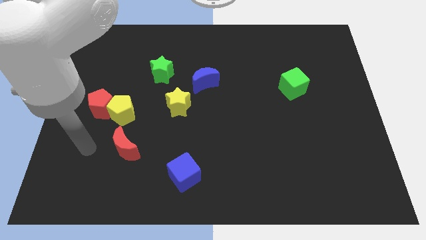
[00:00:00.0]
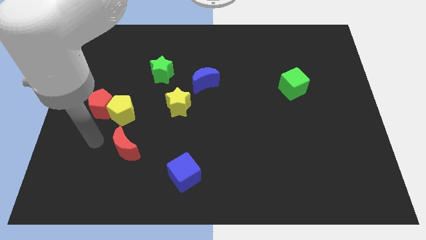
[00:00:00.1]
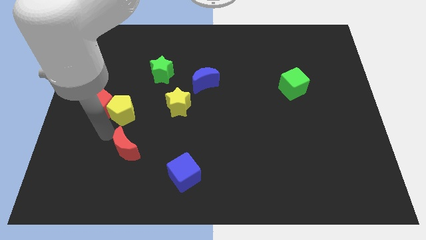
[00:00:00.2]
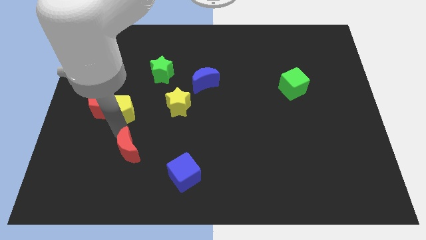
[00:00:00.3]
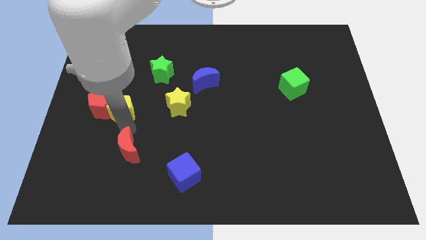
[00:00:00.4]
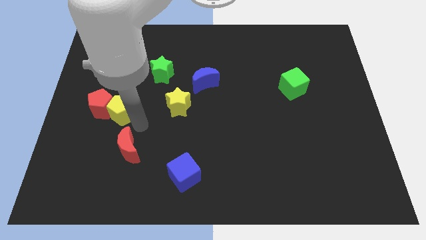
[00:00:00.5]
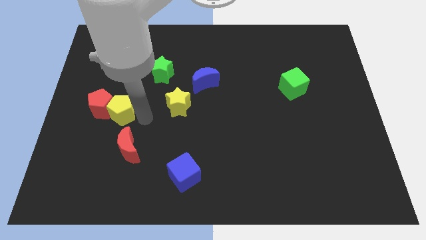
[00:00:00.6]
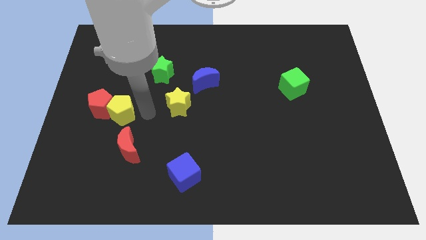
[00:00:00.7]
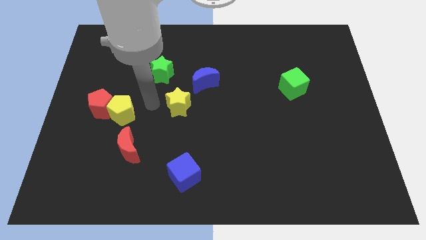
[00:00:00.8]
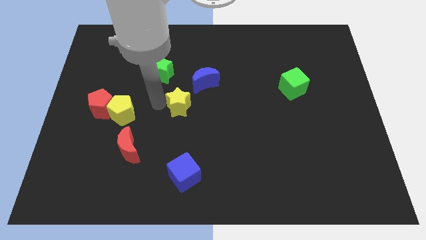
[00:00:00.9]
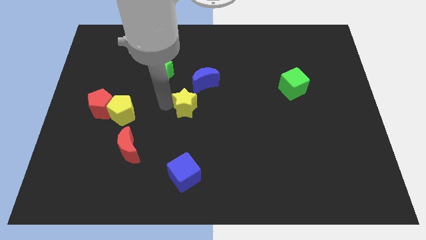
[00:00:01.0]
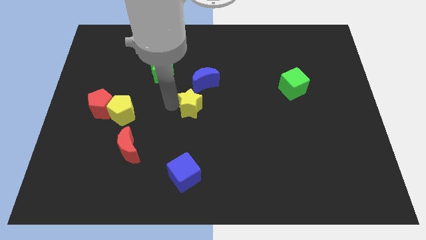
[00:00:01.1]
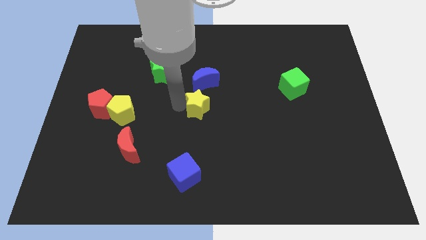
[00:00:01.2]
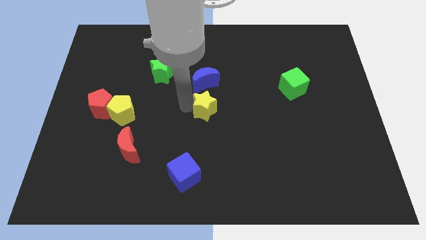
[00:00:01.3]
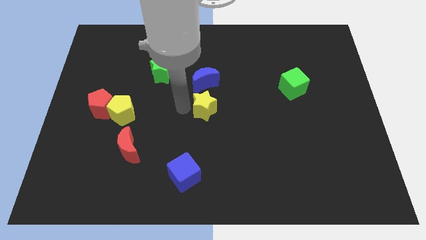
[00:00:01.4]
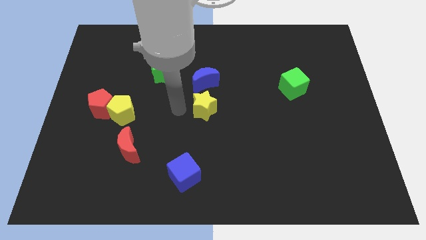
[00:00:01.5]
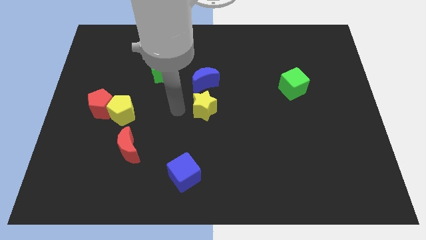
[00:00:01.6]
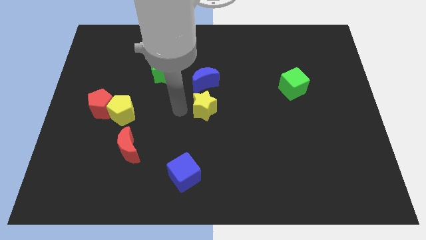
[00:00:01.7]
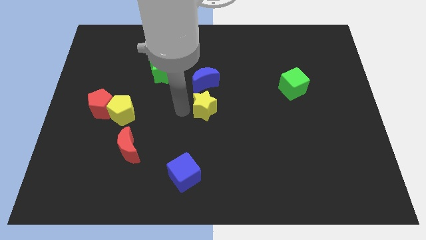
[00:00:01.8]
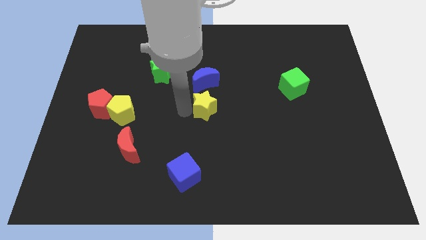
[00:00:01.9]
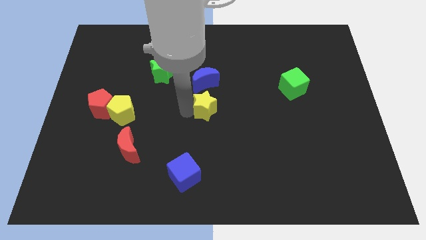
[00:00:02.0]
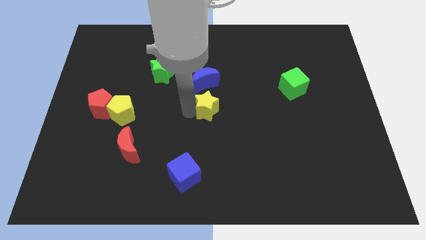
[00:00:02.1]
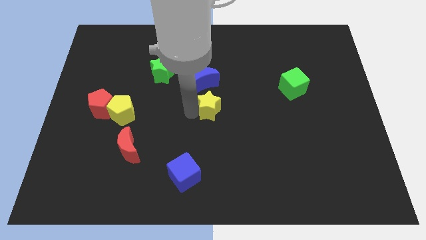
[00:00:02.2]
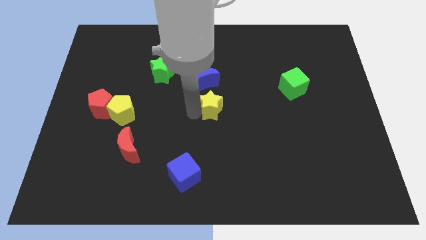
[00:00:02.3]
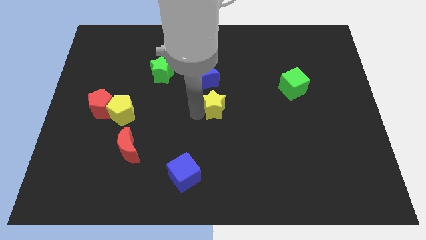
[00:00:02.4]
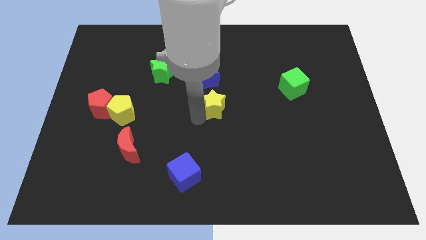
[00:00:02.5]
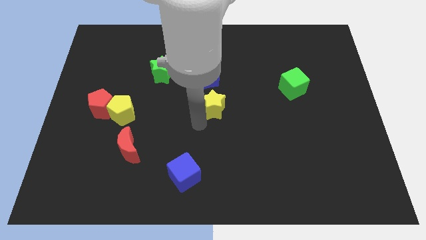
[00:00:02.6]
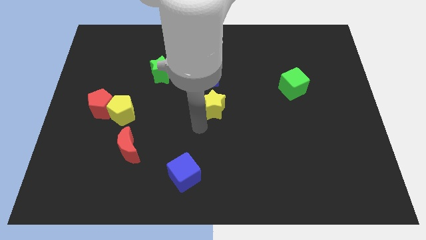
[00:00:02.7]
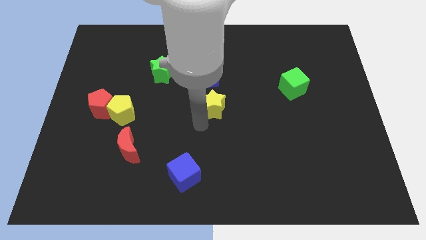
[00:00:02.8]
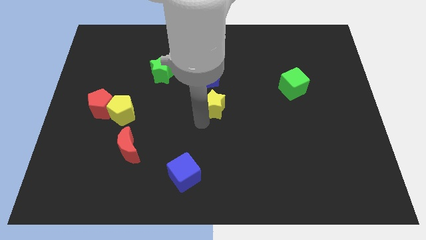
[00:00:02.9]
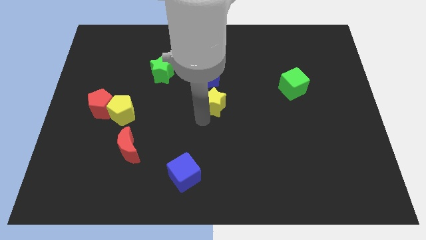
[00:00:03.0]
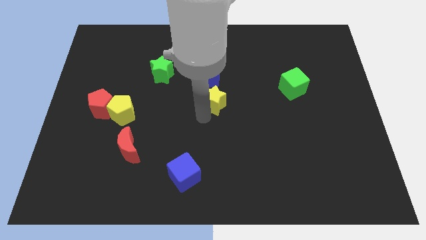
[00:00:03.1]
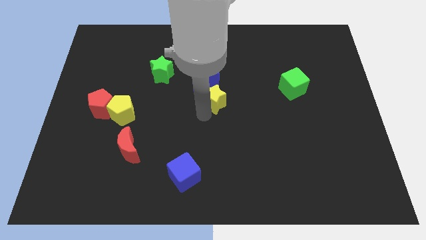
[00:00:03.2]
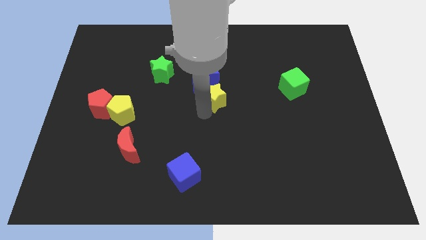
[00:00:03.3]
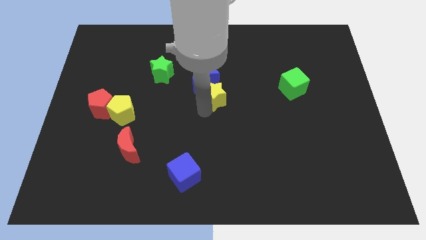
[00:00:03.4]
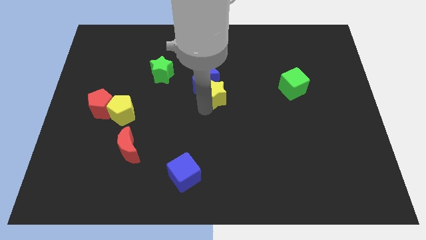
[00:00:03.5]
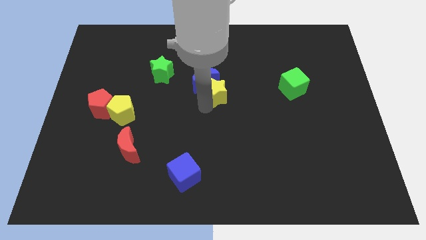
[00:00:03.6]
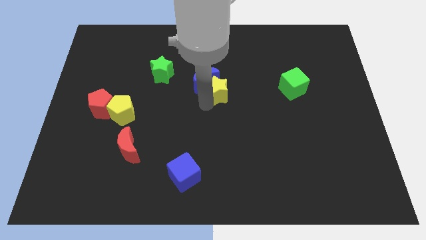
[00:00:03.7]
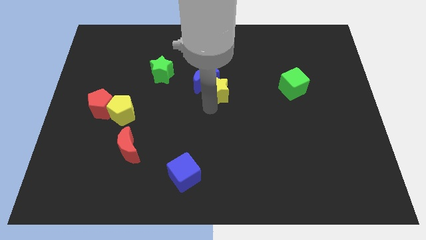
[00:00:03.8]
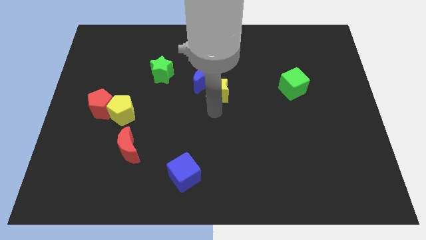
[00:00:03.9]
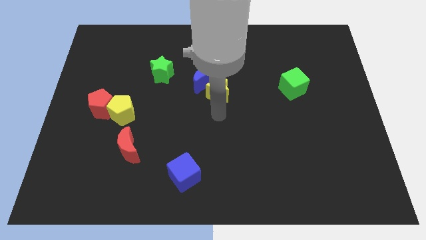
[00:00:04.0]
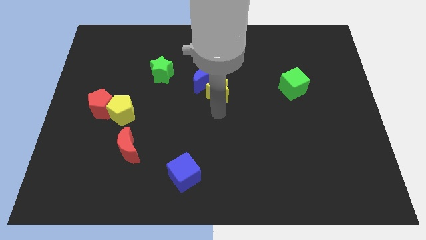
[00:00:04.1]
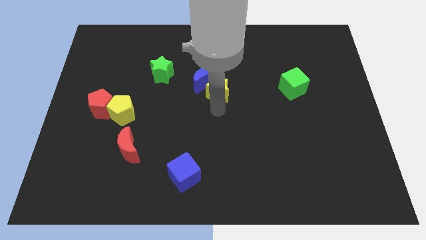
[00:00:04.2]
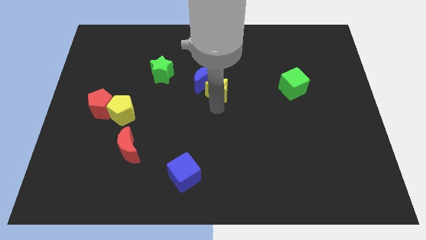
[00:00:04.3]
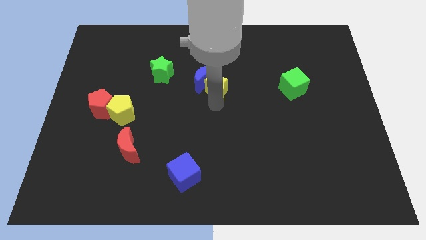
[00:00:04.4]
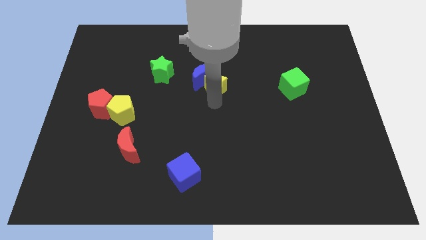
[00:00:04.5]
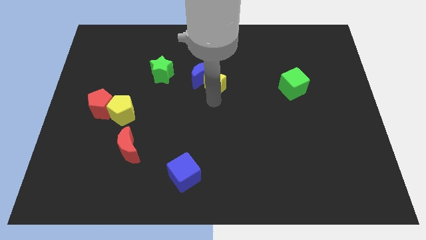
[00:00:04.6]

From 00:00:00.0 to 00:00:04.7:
push the yellow star right of the green star

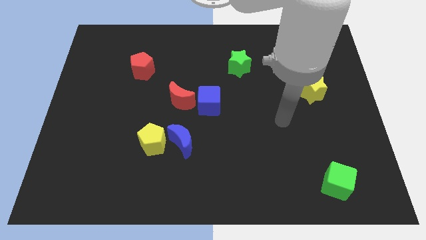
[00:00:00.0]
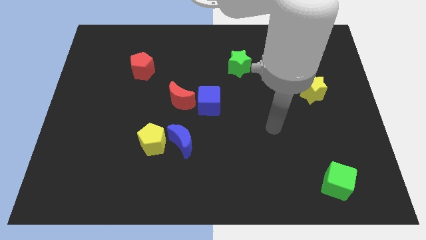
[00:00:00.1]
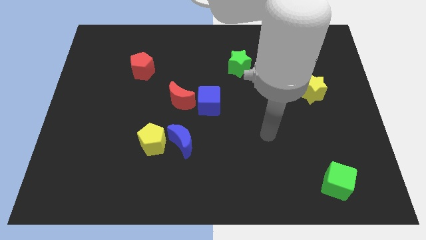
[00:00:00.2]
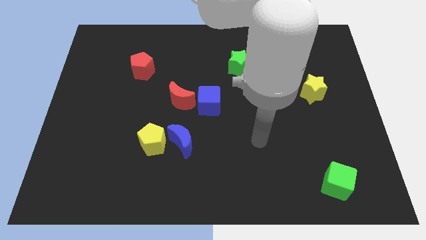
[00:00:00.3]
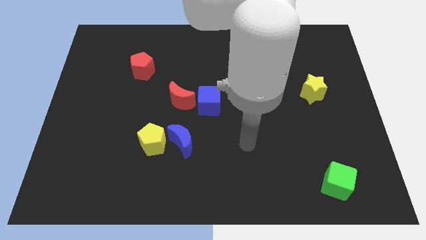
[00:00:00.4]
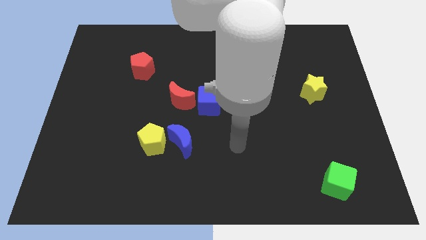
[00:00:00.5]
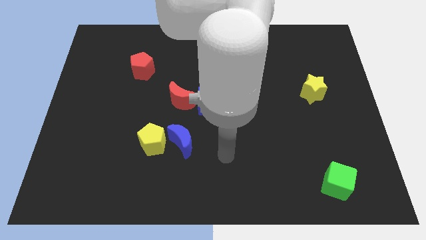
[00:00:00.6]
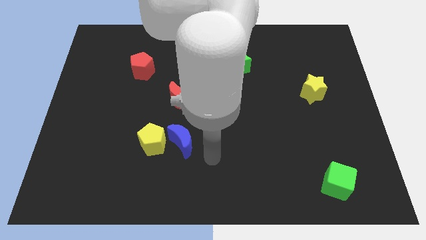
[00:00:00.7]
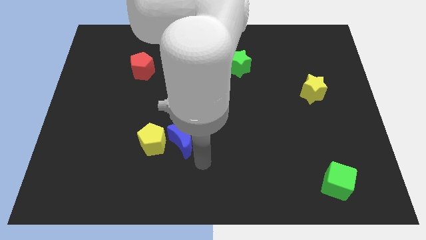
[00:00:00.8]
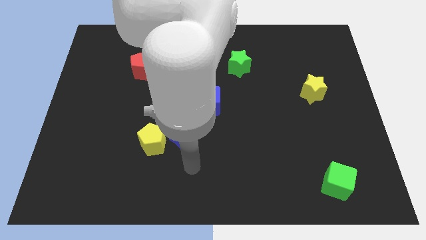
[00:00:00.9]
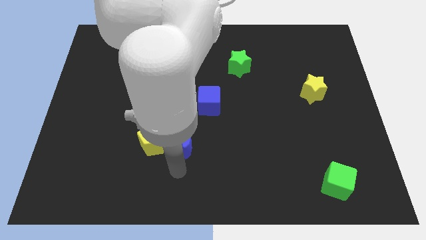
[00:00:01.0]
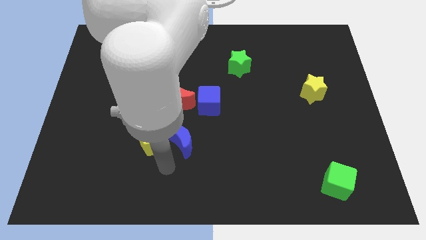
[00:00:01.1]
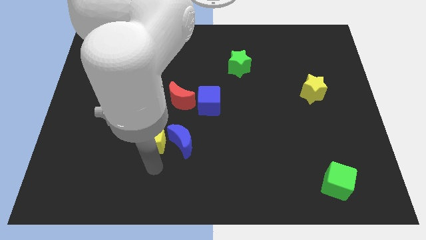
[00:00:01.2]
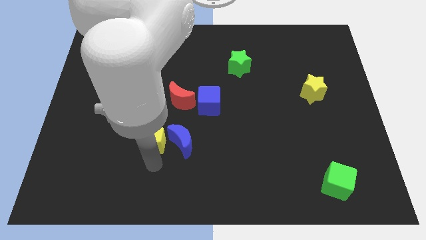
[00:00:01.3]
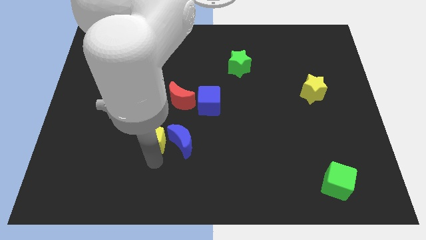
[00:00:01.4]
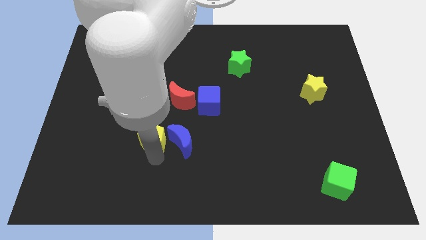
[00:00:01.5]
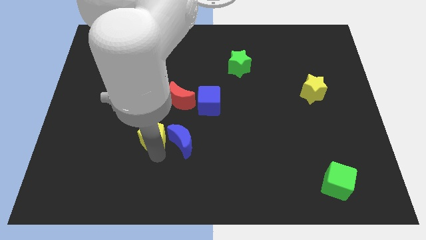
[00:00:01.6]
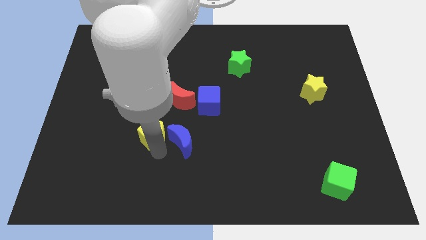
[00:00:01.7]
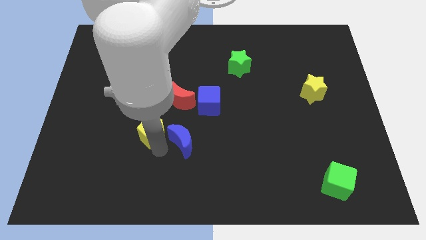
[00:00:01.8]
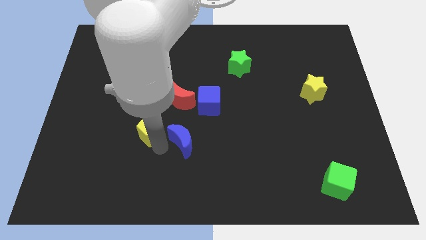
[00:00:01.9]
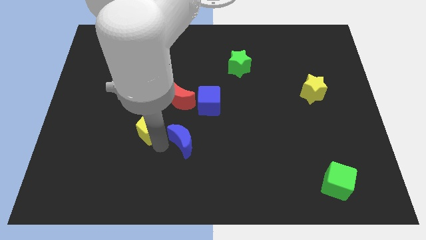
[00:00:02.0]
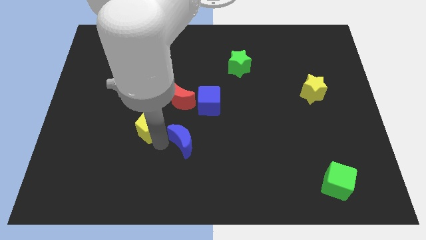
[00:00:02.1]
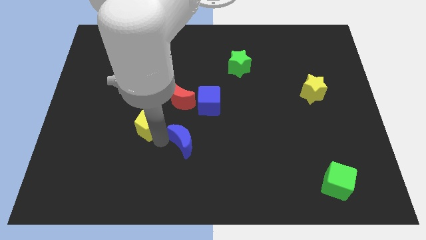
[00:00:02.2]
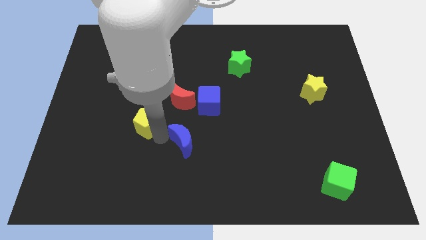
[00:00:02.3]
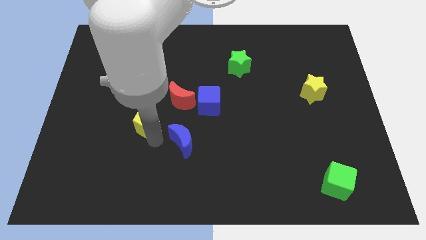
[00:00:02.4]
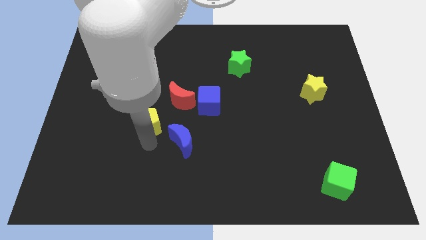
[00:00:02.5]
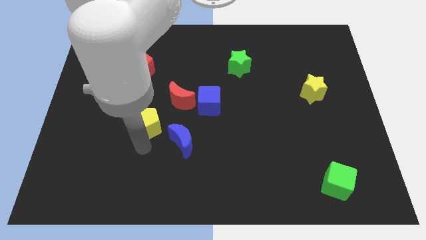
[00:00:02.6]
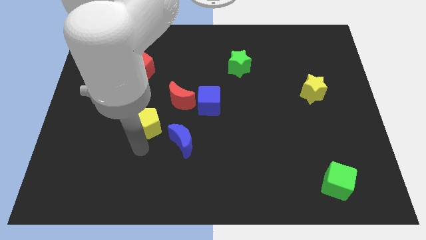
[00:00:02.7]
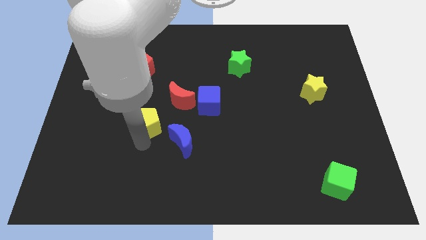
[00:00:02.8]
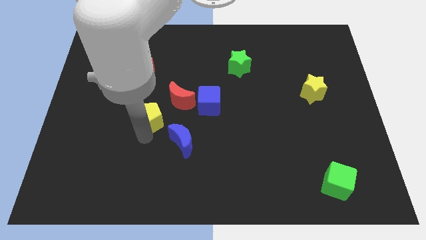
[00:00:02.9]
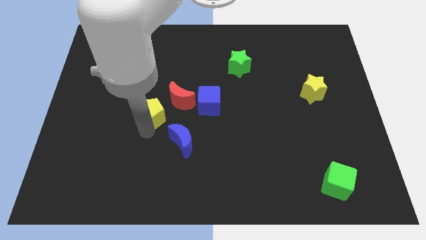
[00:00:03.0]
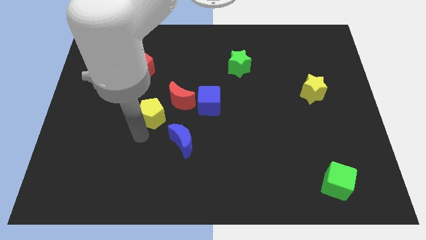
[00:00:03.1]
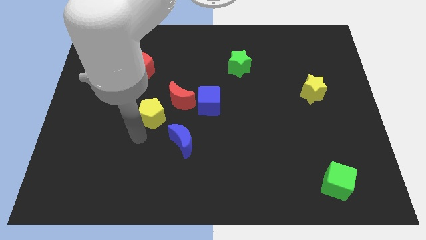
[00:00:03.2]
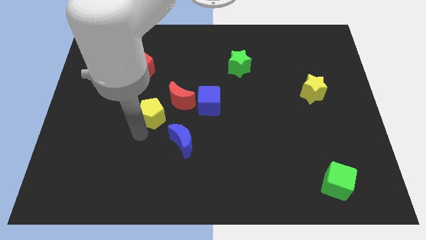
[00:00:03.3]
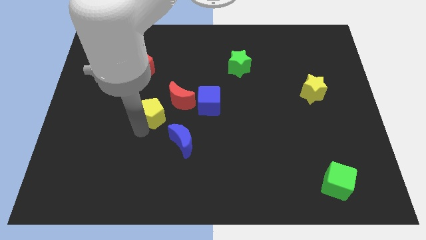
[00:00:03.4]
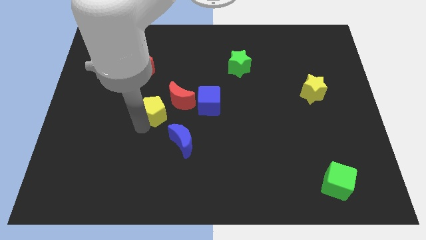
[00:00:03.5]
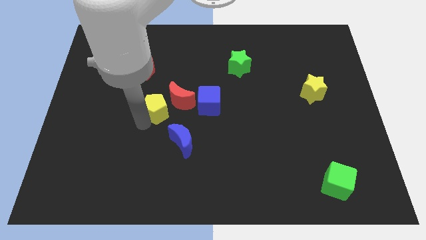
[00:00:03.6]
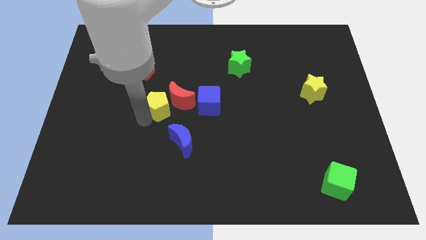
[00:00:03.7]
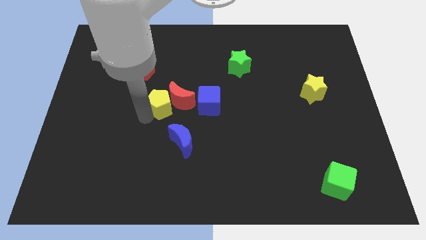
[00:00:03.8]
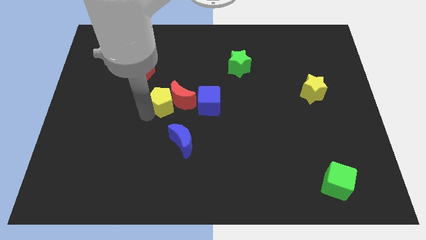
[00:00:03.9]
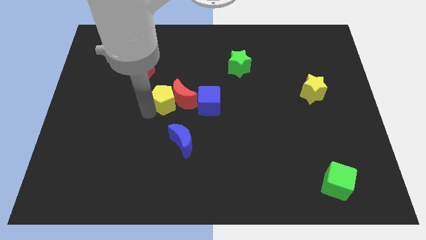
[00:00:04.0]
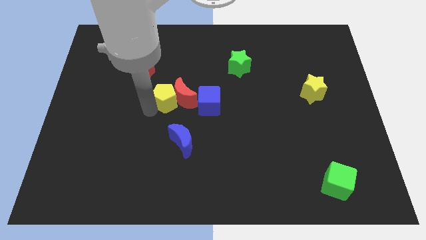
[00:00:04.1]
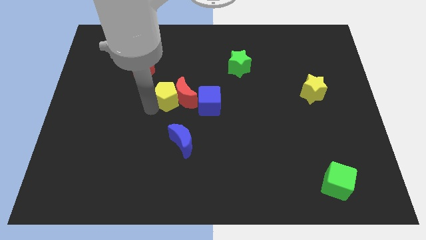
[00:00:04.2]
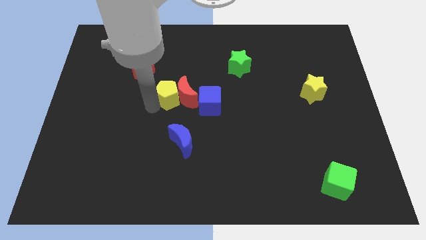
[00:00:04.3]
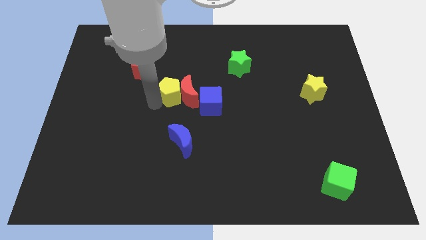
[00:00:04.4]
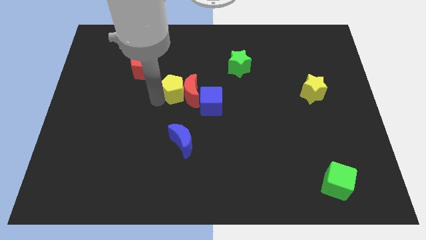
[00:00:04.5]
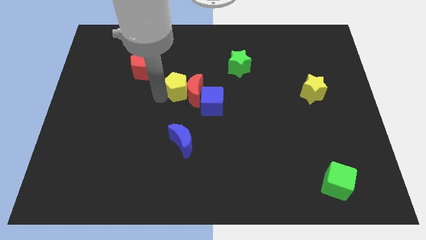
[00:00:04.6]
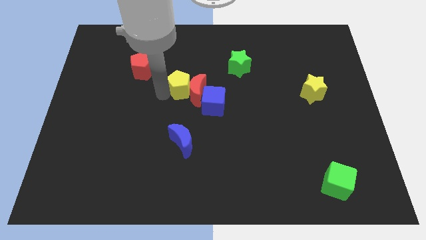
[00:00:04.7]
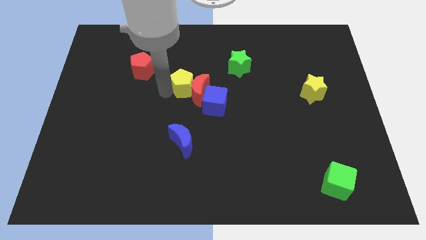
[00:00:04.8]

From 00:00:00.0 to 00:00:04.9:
move the yellow pentagon to the top of the red moon
